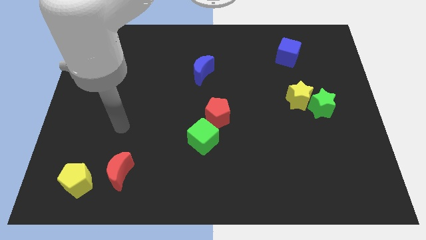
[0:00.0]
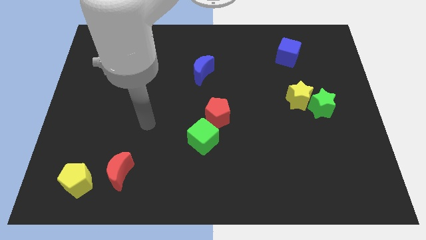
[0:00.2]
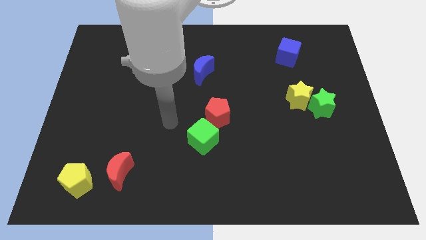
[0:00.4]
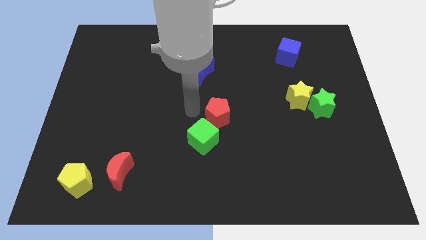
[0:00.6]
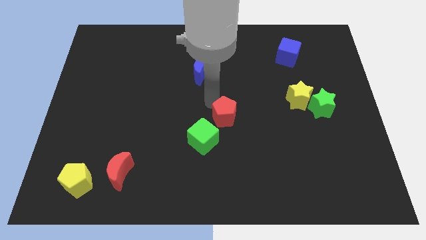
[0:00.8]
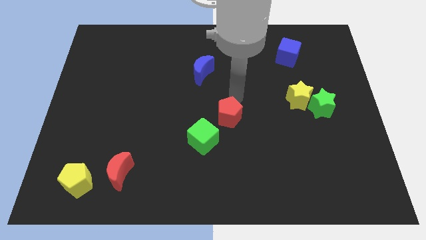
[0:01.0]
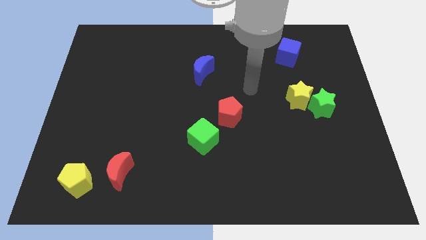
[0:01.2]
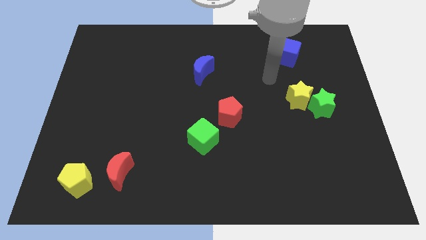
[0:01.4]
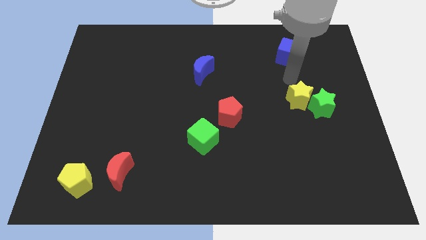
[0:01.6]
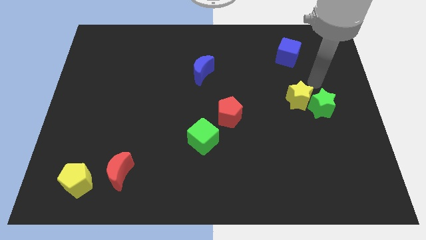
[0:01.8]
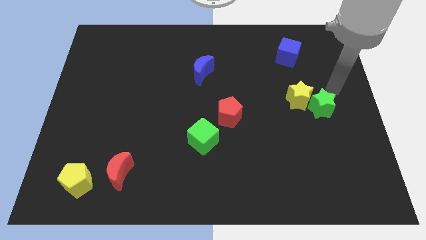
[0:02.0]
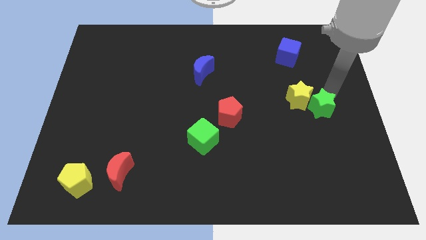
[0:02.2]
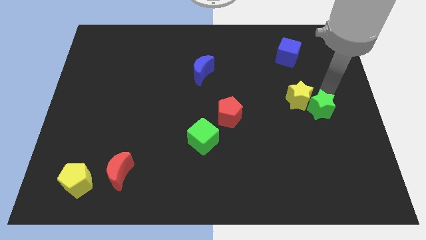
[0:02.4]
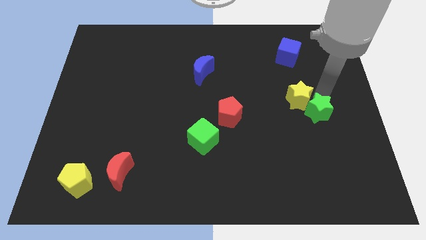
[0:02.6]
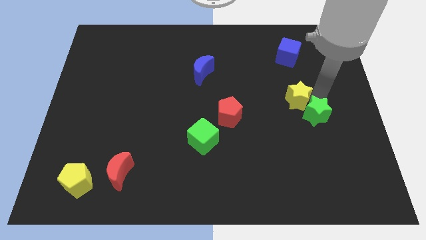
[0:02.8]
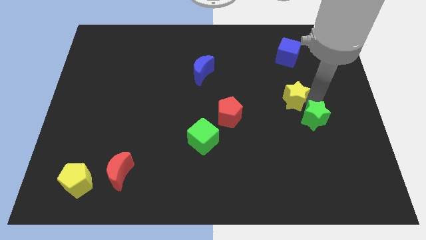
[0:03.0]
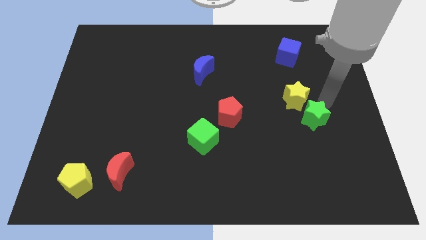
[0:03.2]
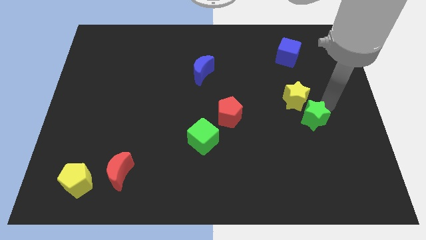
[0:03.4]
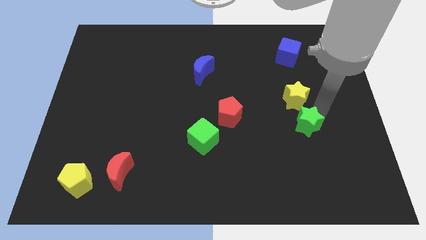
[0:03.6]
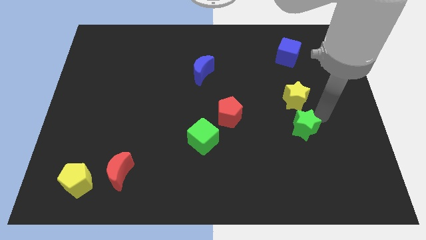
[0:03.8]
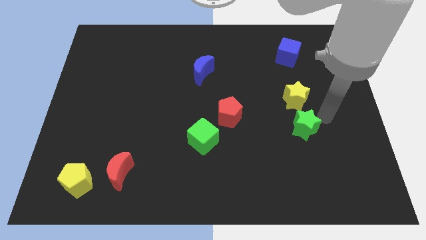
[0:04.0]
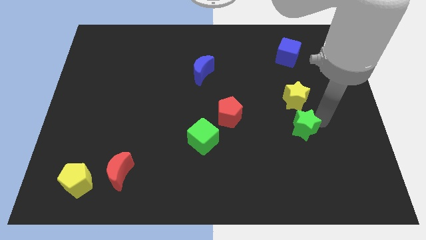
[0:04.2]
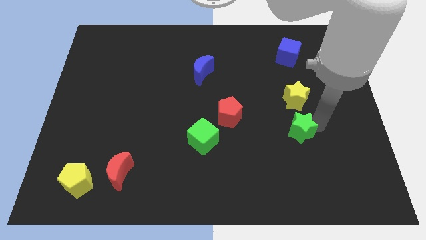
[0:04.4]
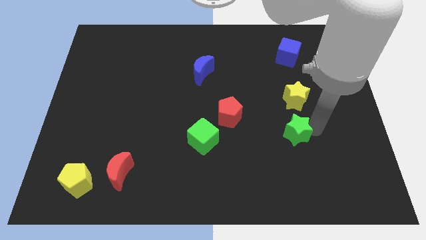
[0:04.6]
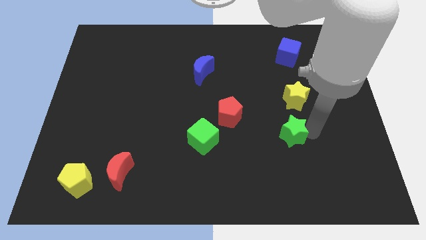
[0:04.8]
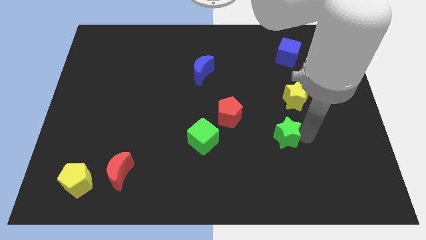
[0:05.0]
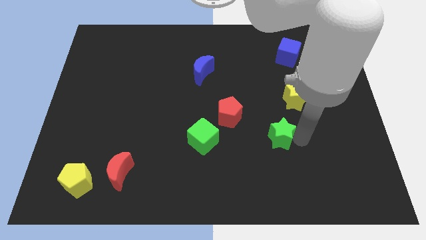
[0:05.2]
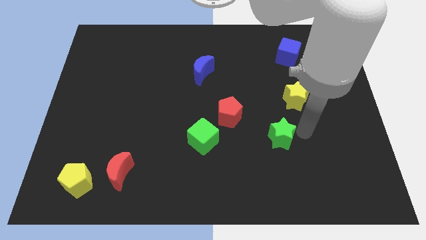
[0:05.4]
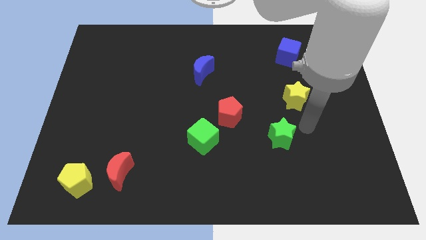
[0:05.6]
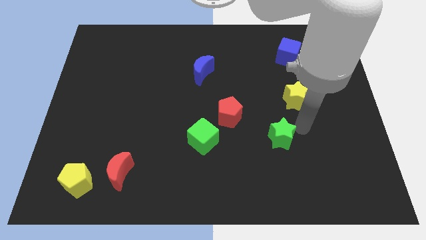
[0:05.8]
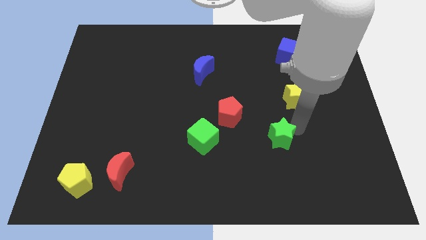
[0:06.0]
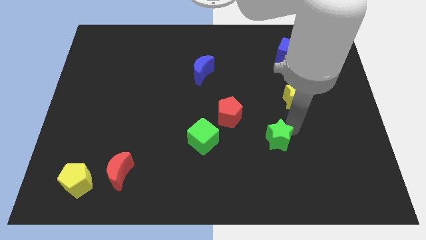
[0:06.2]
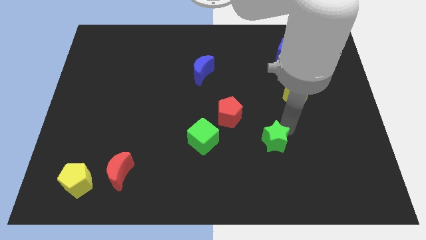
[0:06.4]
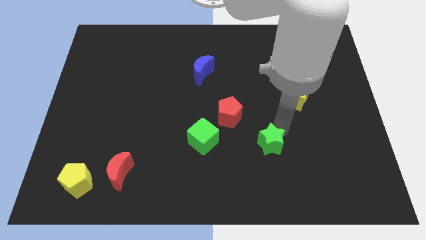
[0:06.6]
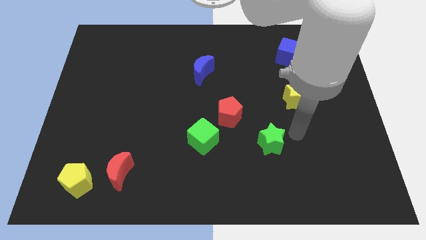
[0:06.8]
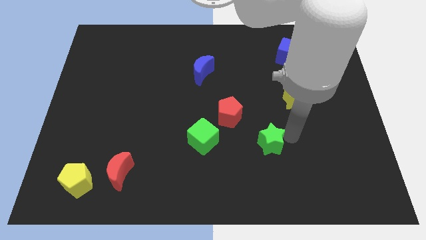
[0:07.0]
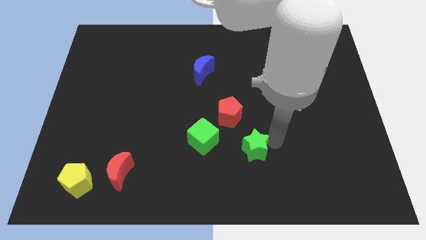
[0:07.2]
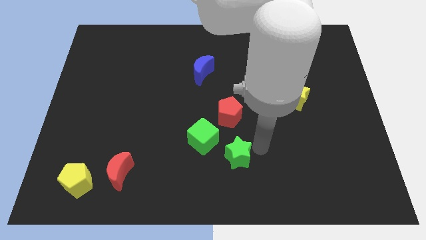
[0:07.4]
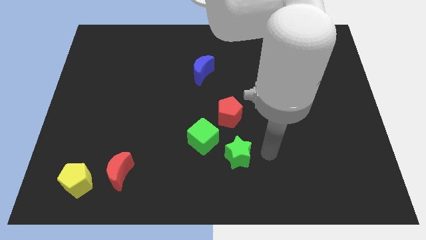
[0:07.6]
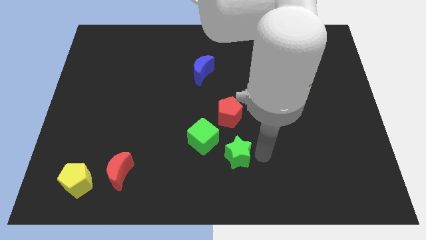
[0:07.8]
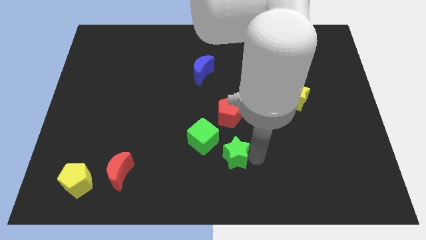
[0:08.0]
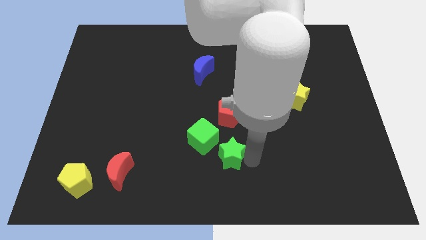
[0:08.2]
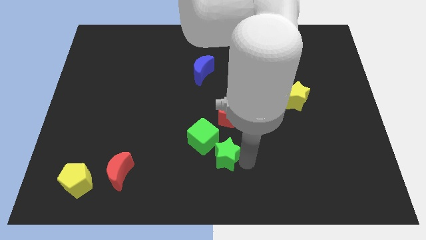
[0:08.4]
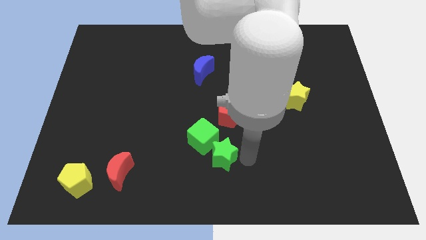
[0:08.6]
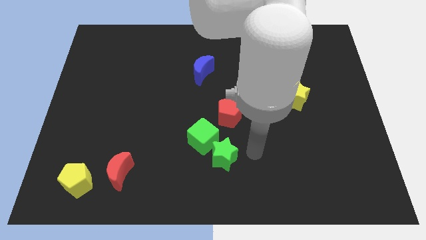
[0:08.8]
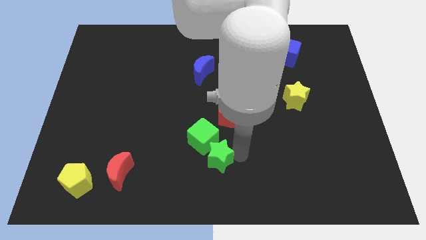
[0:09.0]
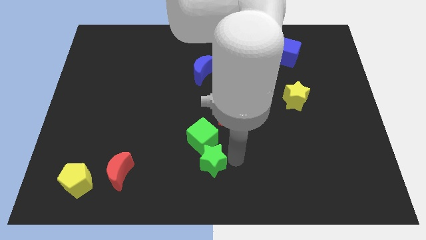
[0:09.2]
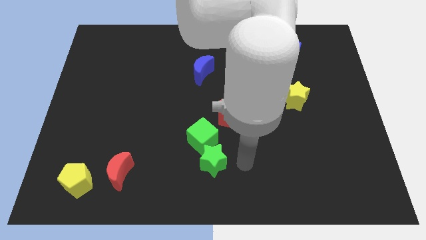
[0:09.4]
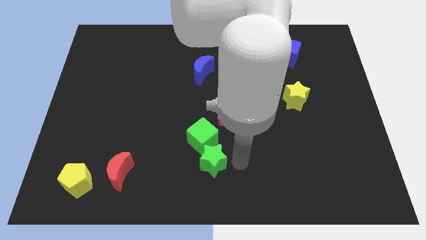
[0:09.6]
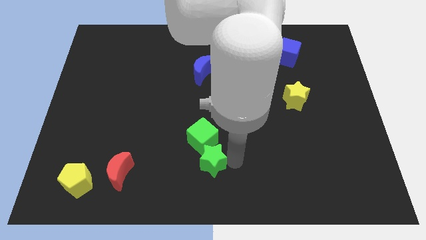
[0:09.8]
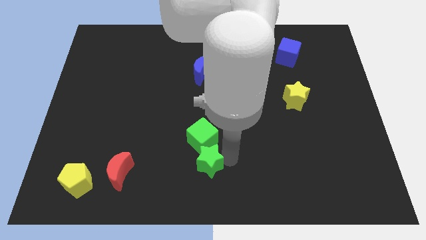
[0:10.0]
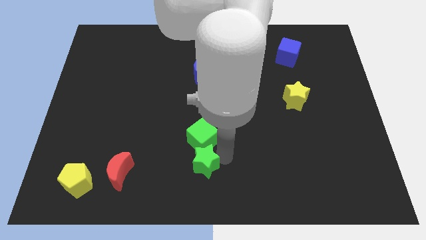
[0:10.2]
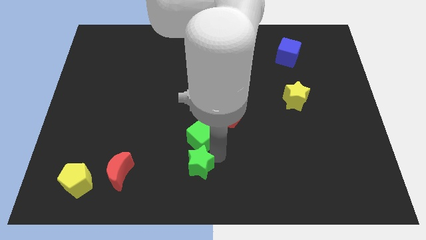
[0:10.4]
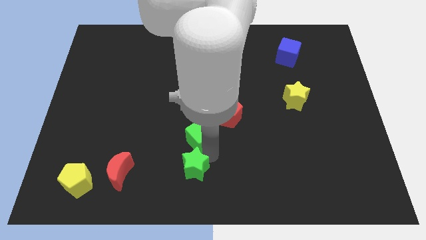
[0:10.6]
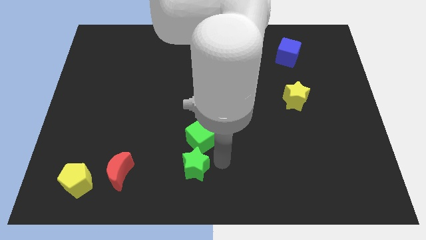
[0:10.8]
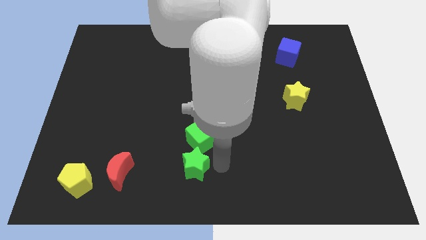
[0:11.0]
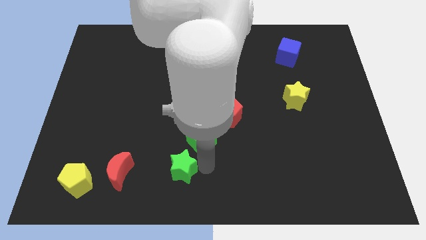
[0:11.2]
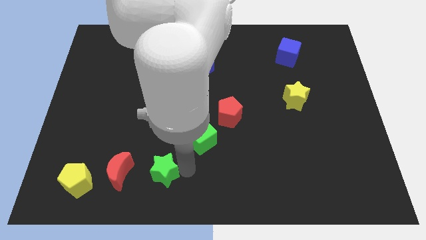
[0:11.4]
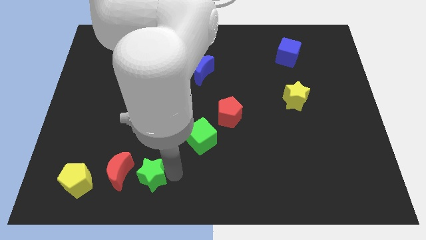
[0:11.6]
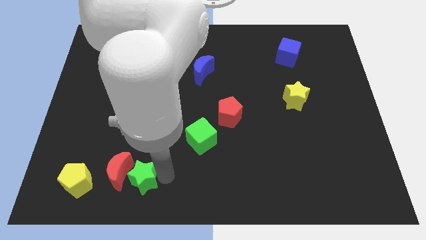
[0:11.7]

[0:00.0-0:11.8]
push the green star next to the red moon
